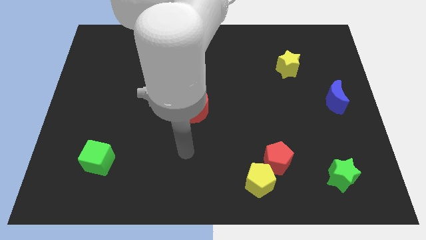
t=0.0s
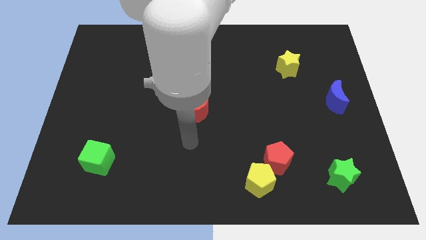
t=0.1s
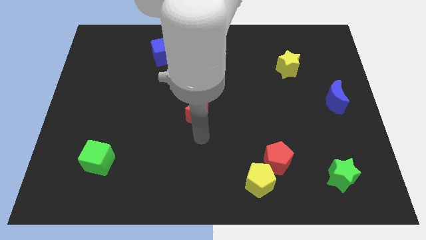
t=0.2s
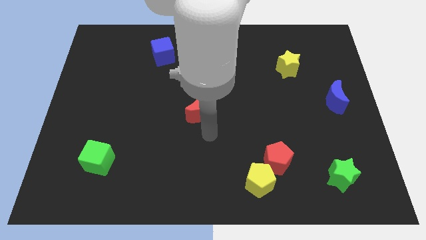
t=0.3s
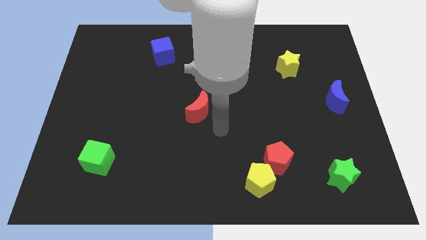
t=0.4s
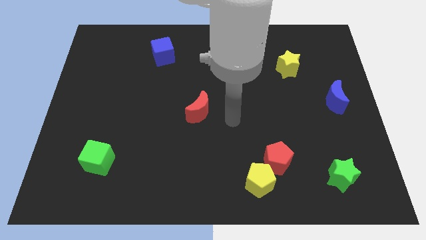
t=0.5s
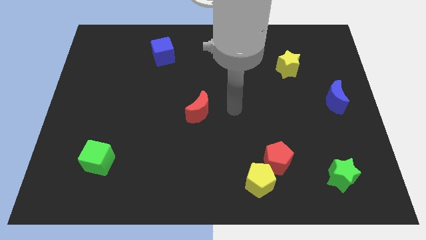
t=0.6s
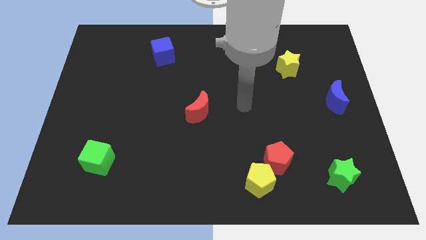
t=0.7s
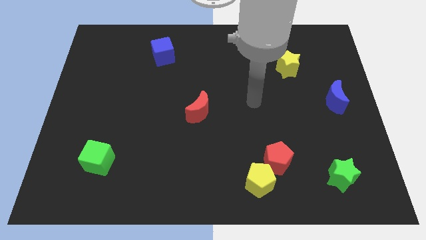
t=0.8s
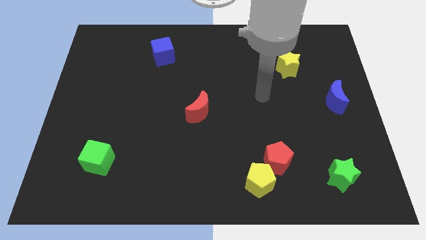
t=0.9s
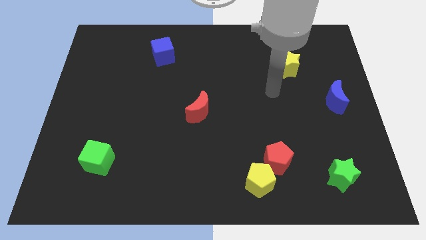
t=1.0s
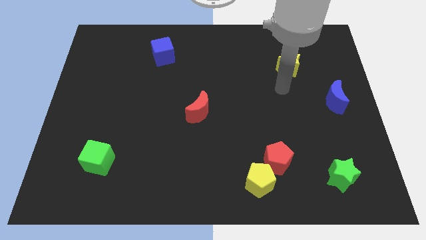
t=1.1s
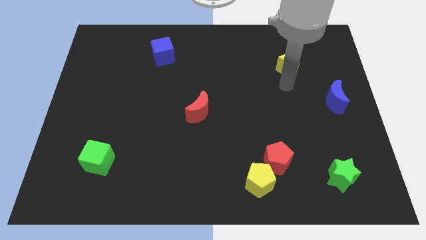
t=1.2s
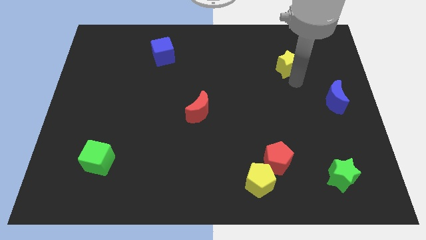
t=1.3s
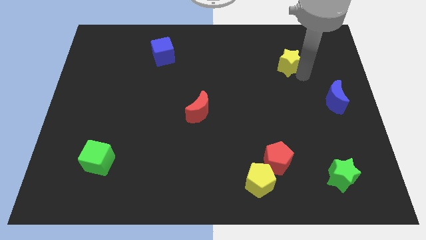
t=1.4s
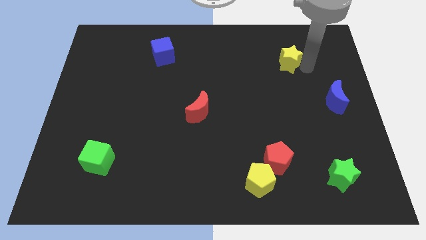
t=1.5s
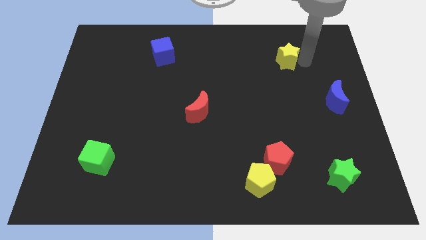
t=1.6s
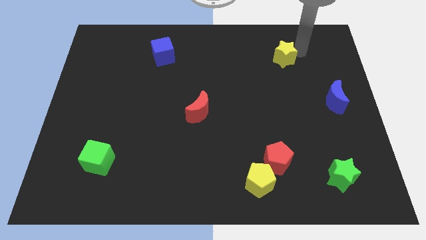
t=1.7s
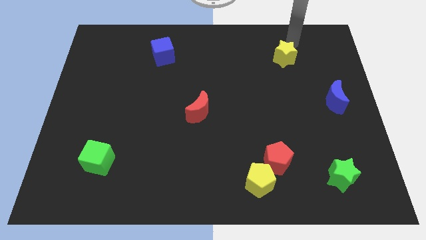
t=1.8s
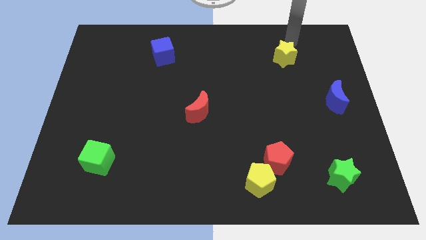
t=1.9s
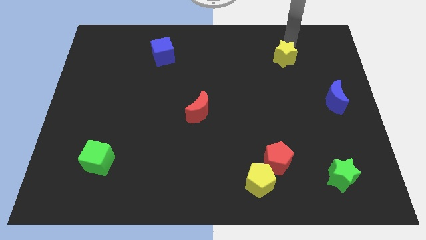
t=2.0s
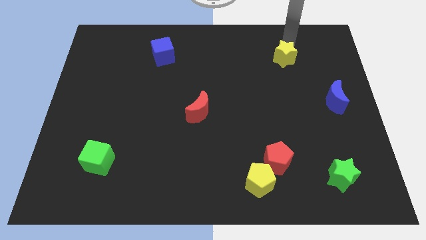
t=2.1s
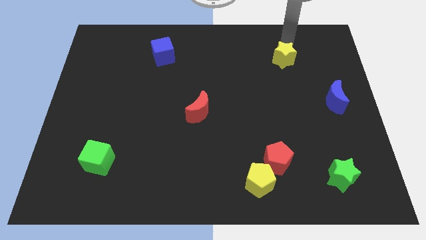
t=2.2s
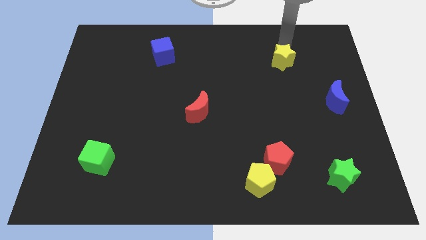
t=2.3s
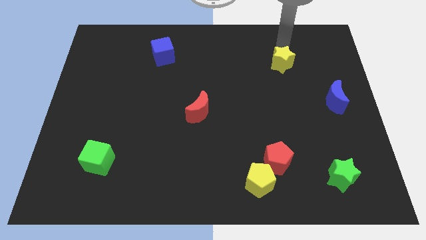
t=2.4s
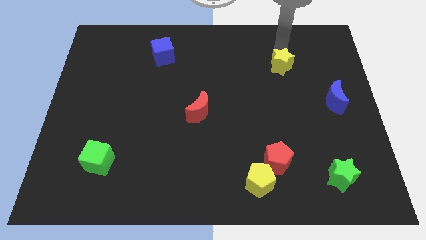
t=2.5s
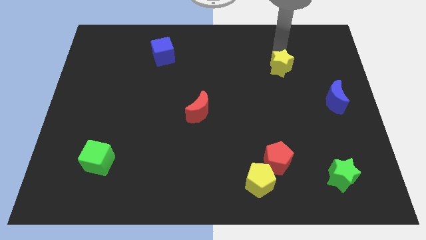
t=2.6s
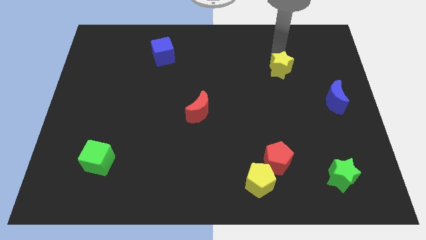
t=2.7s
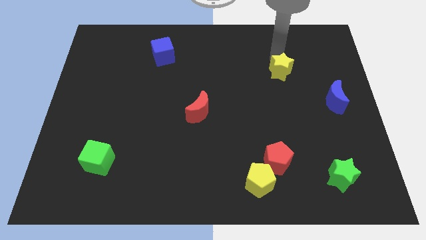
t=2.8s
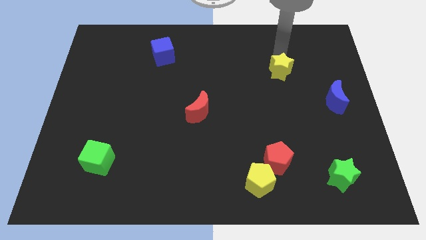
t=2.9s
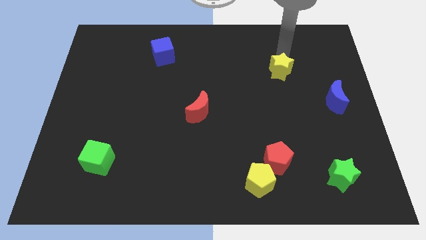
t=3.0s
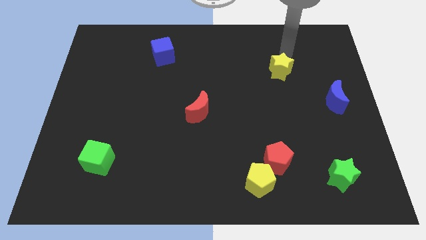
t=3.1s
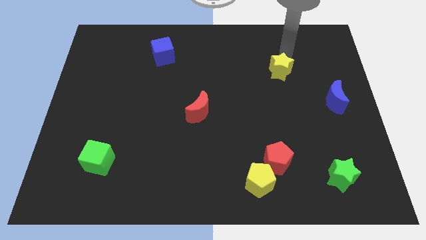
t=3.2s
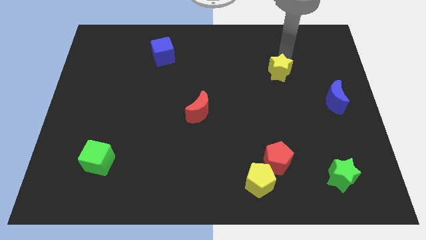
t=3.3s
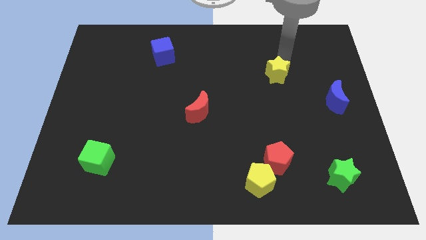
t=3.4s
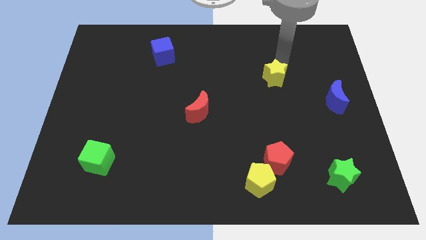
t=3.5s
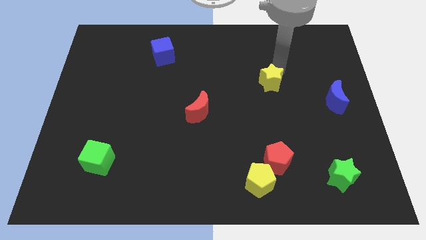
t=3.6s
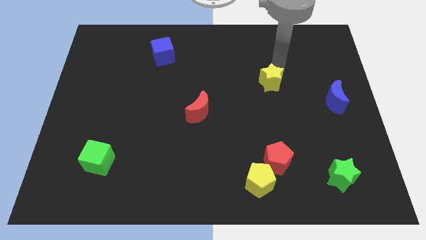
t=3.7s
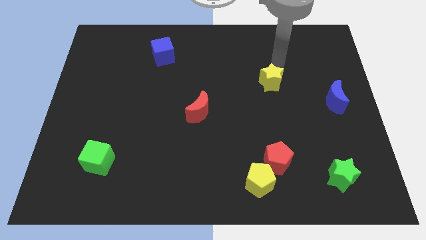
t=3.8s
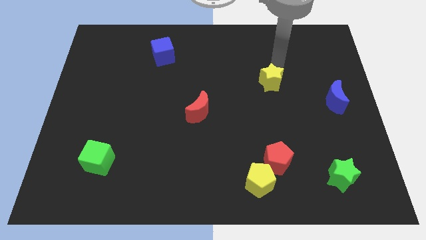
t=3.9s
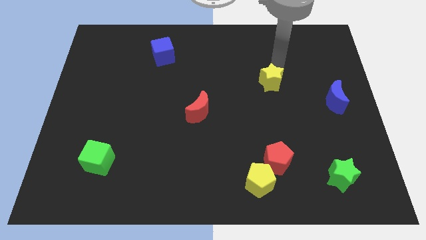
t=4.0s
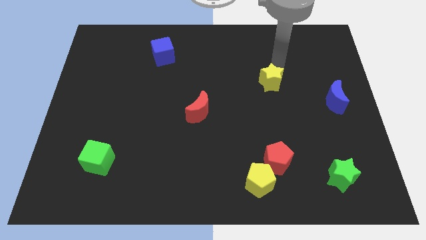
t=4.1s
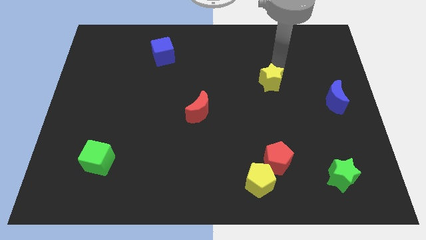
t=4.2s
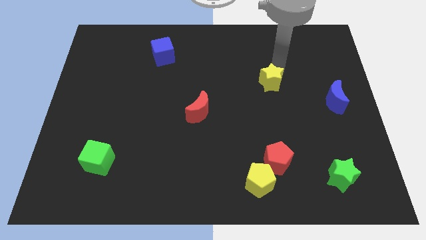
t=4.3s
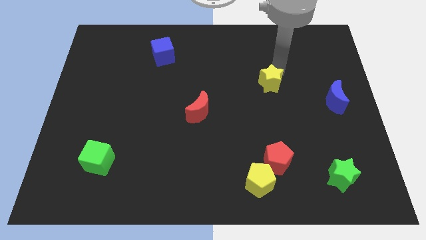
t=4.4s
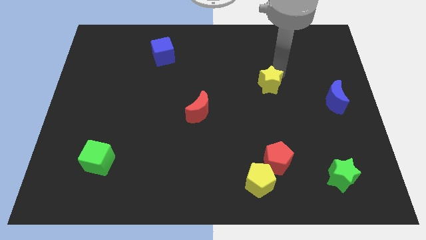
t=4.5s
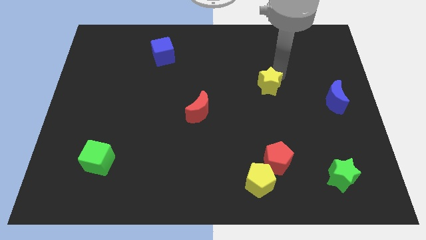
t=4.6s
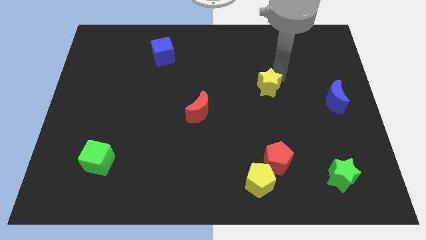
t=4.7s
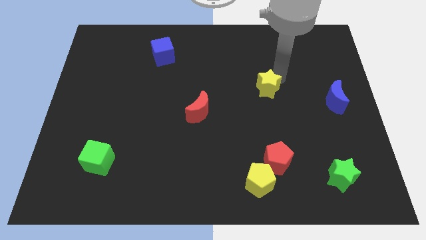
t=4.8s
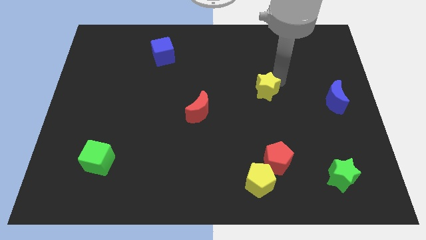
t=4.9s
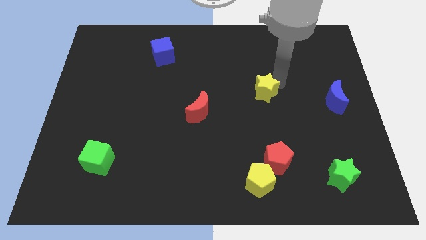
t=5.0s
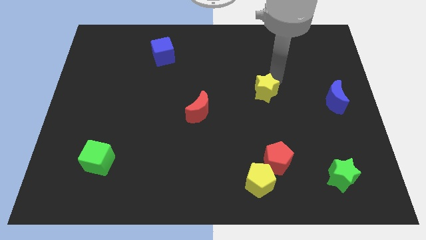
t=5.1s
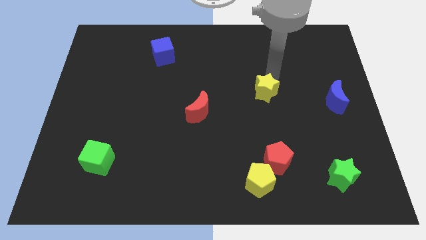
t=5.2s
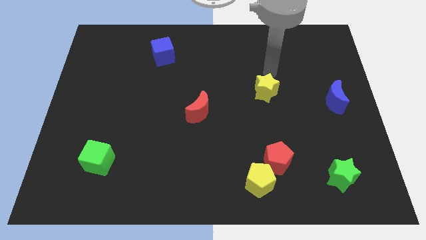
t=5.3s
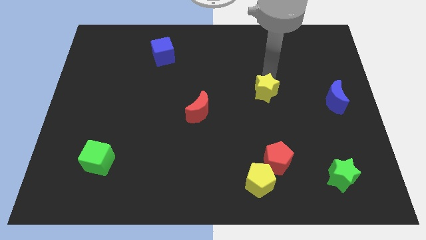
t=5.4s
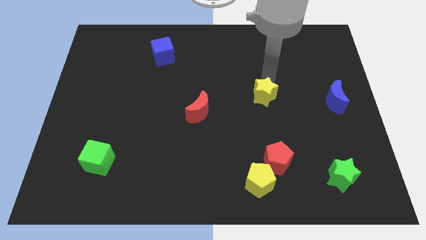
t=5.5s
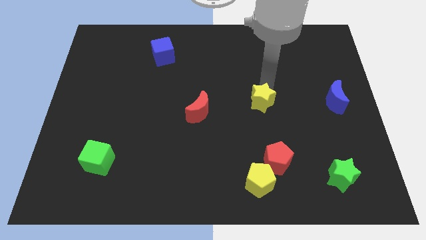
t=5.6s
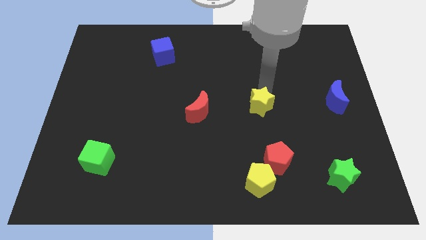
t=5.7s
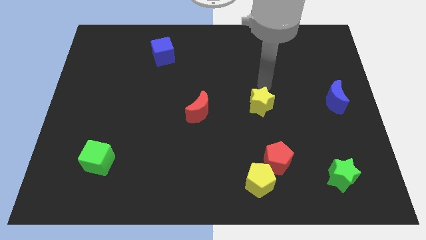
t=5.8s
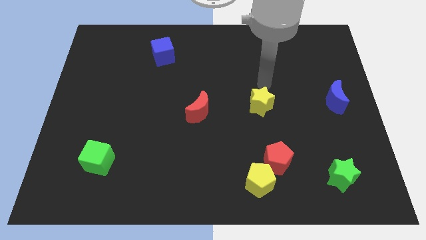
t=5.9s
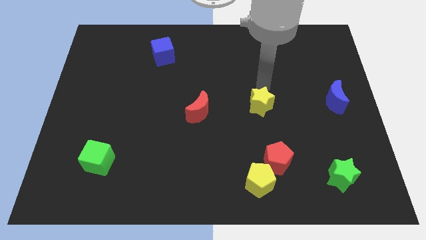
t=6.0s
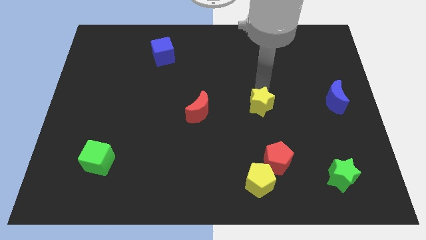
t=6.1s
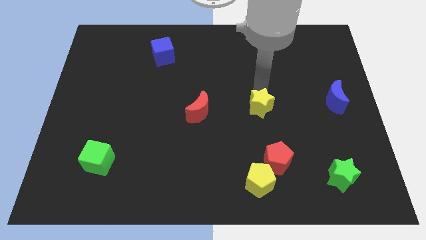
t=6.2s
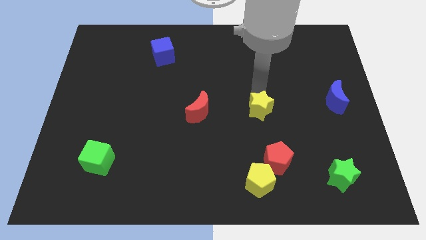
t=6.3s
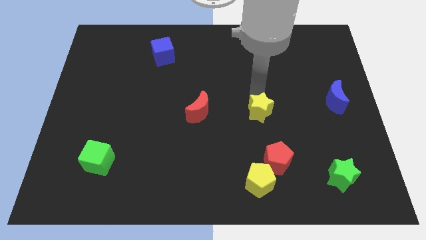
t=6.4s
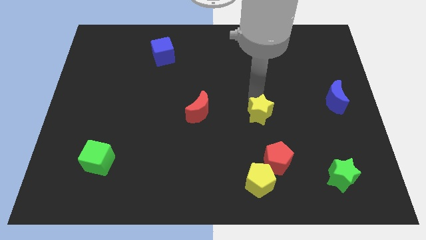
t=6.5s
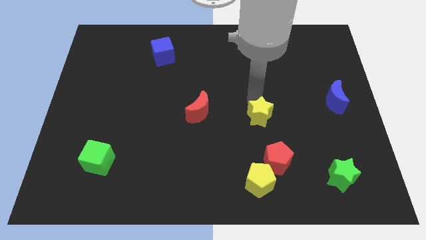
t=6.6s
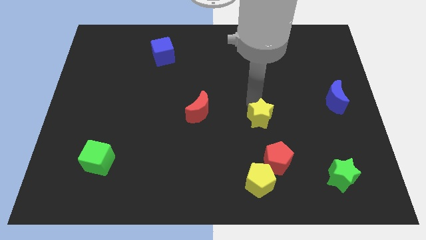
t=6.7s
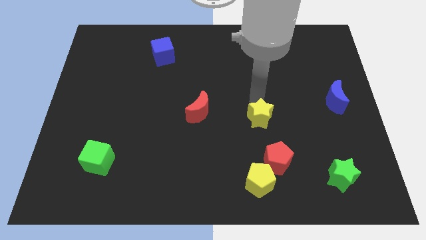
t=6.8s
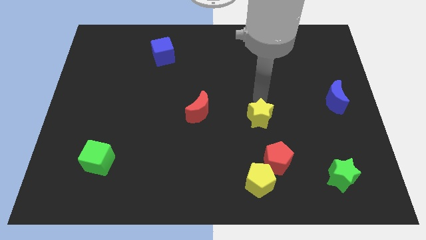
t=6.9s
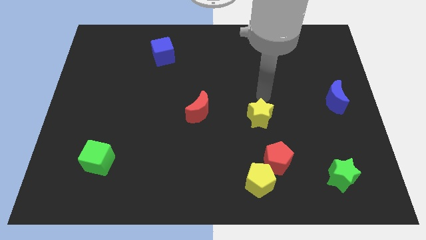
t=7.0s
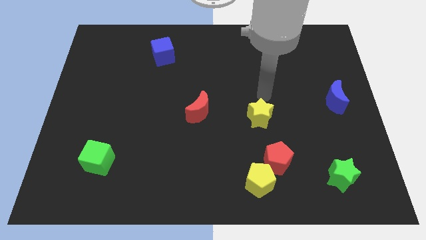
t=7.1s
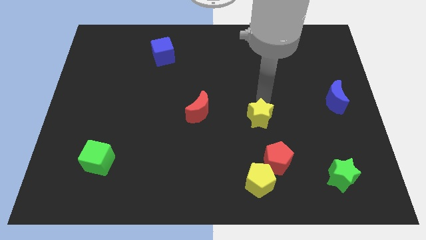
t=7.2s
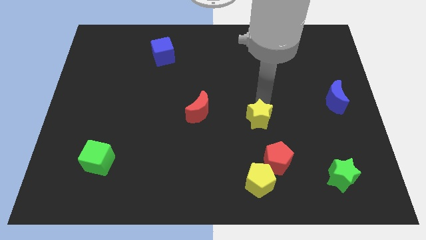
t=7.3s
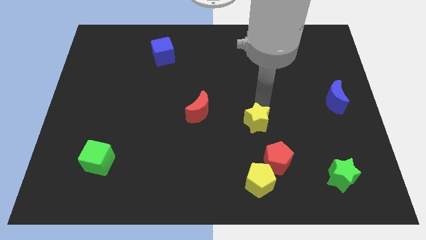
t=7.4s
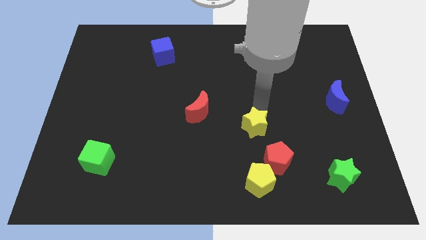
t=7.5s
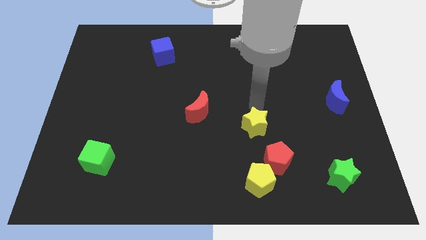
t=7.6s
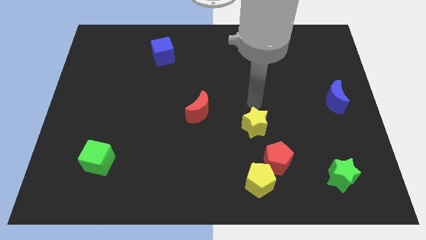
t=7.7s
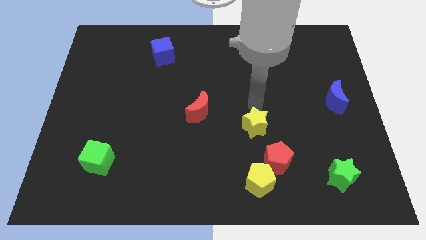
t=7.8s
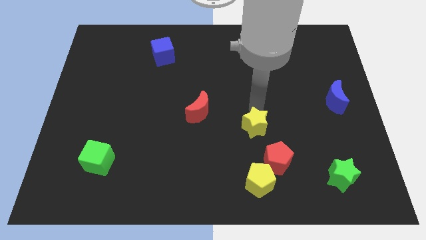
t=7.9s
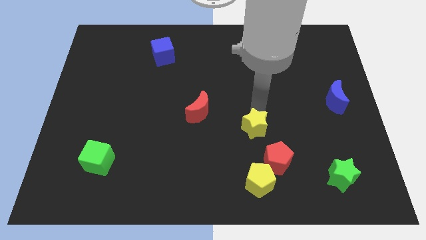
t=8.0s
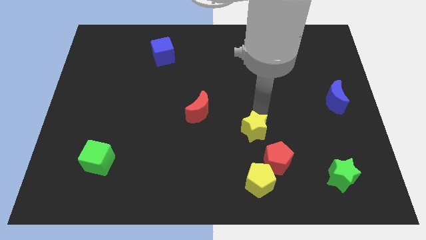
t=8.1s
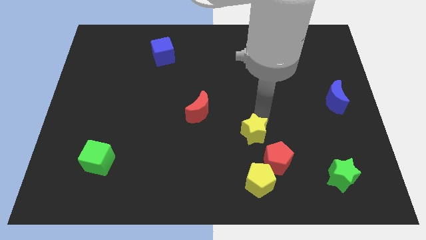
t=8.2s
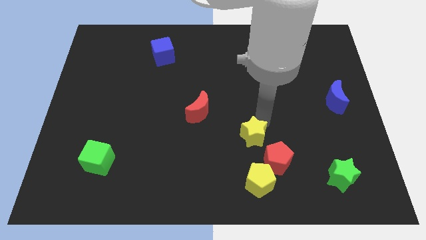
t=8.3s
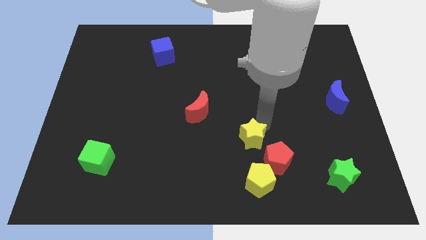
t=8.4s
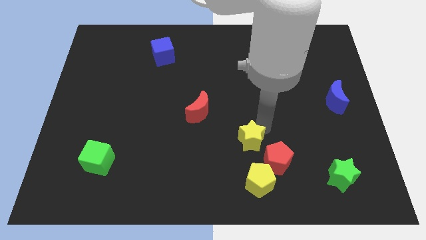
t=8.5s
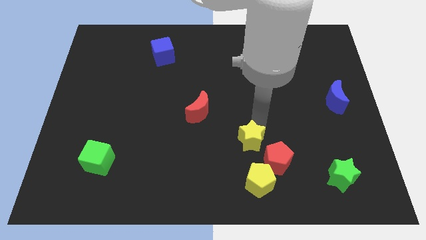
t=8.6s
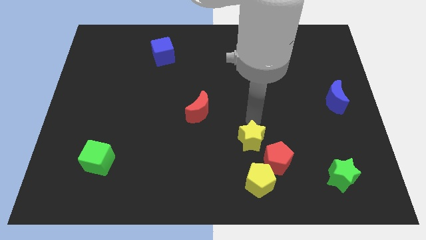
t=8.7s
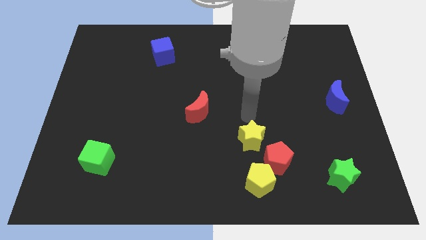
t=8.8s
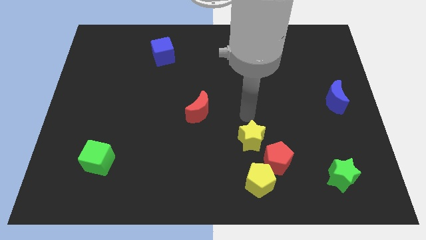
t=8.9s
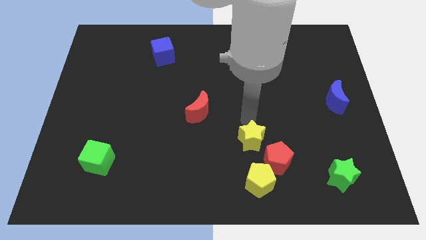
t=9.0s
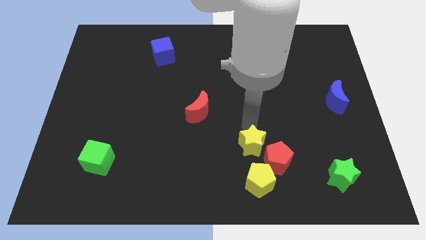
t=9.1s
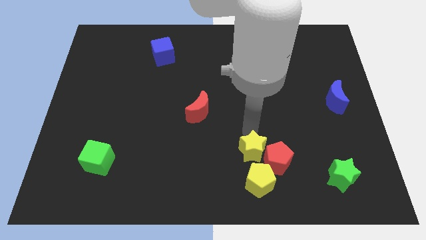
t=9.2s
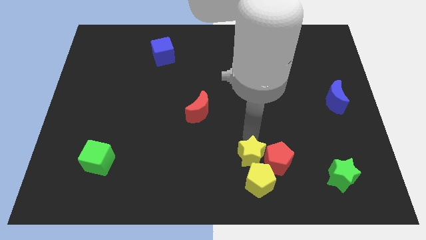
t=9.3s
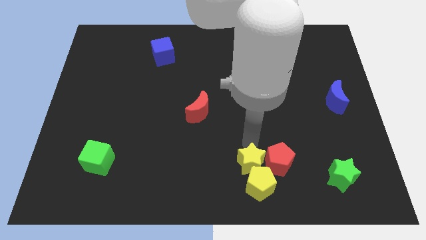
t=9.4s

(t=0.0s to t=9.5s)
move the yellow star to the yellow pentagon
